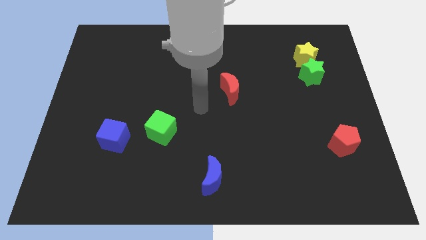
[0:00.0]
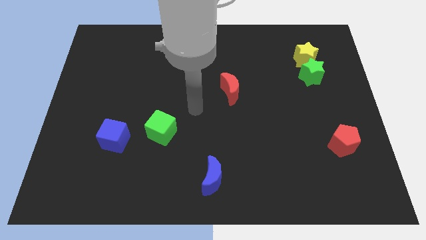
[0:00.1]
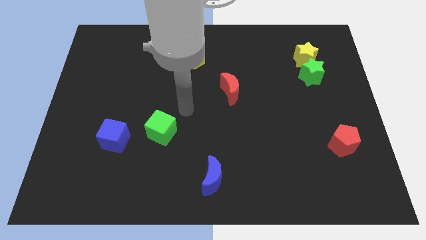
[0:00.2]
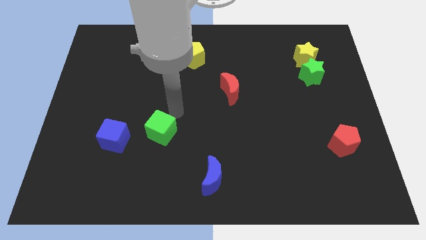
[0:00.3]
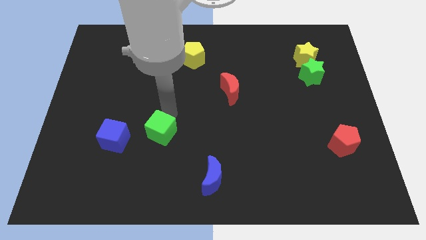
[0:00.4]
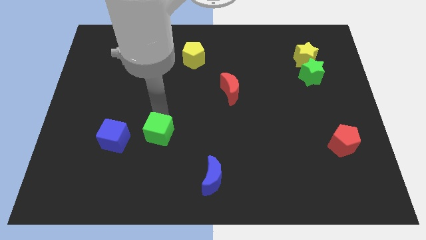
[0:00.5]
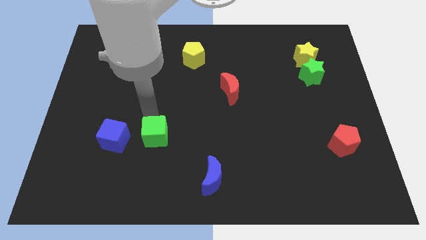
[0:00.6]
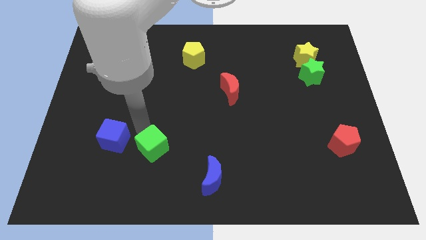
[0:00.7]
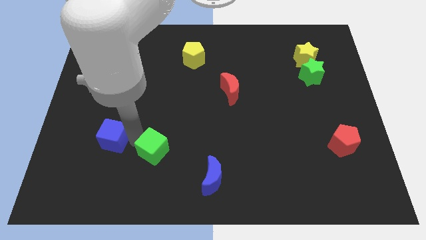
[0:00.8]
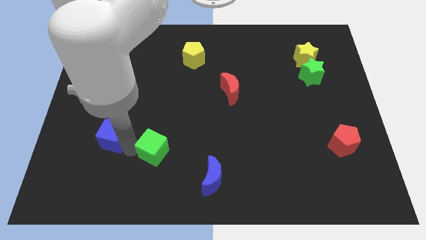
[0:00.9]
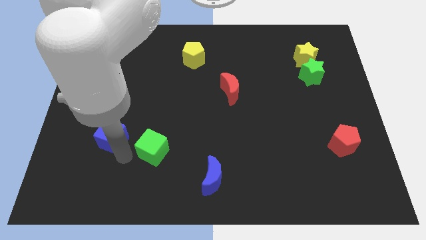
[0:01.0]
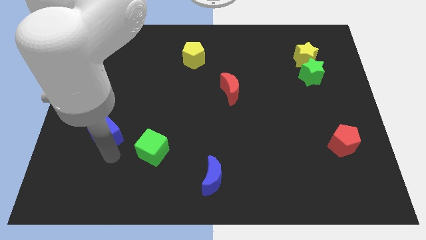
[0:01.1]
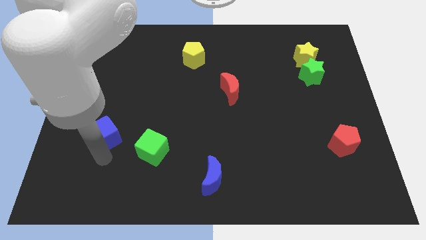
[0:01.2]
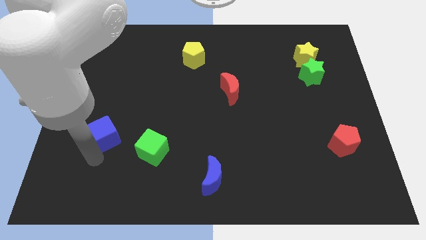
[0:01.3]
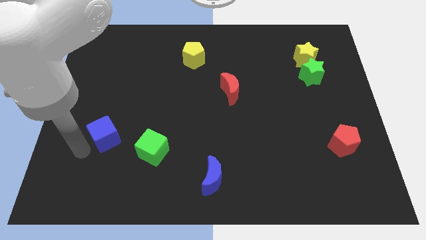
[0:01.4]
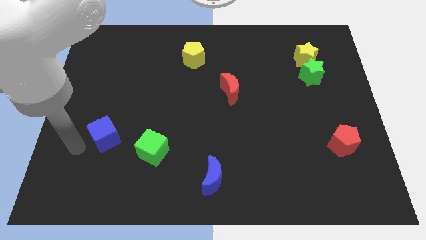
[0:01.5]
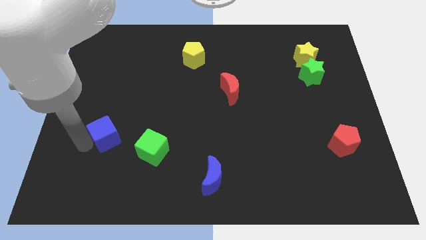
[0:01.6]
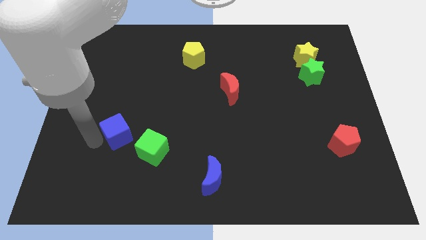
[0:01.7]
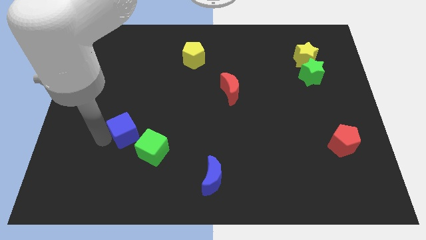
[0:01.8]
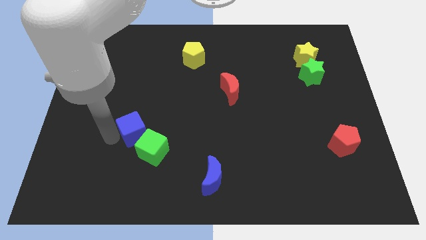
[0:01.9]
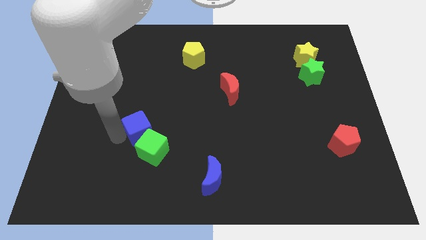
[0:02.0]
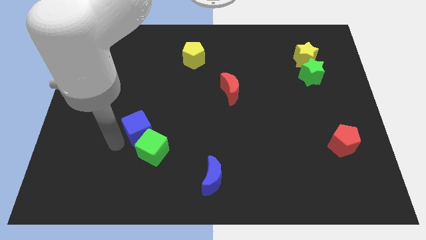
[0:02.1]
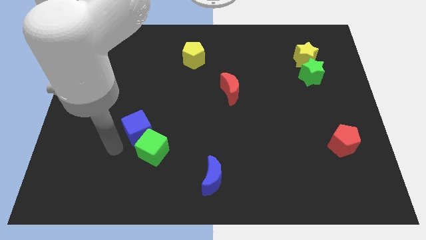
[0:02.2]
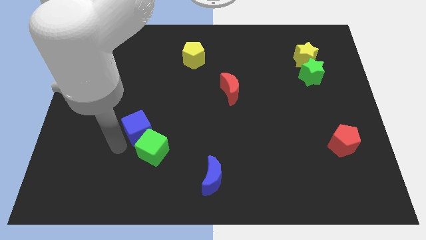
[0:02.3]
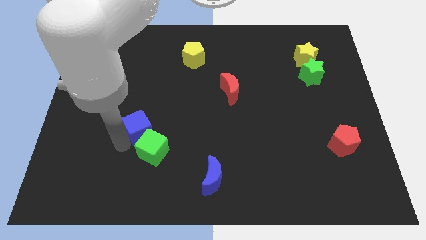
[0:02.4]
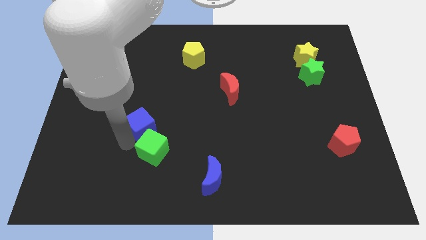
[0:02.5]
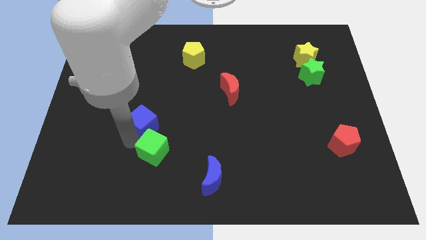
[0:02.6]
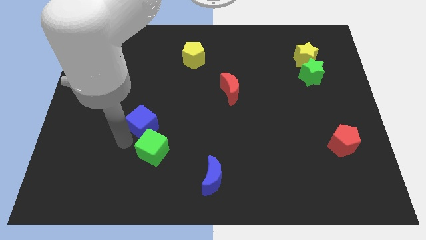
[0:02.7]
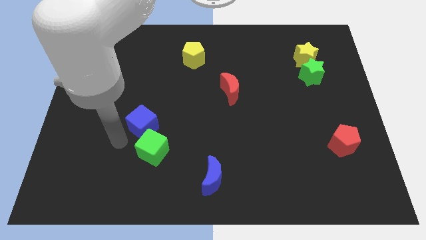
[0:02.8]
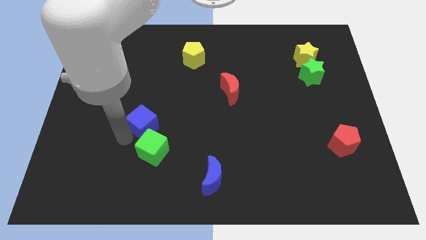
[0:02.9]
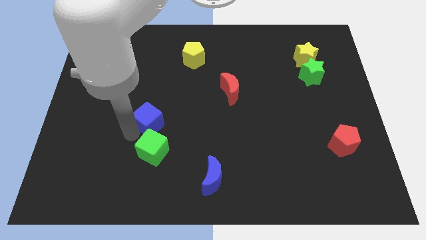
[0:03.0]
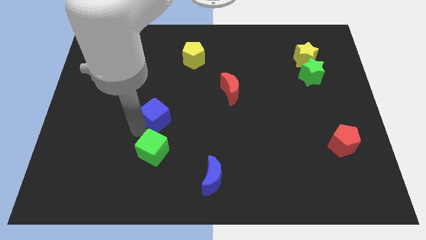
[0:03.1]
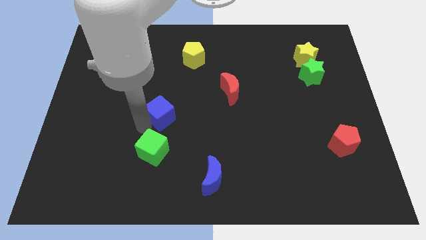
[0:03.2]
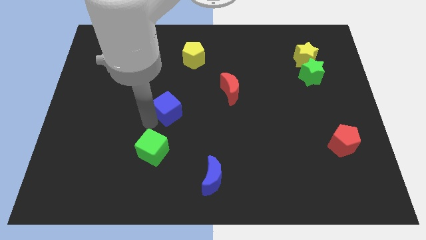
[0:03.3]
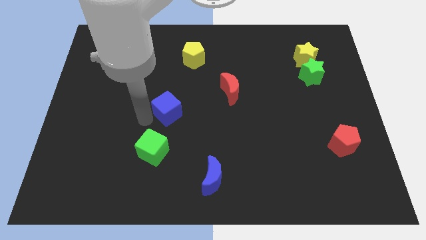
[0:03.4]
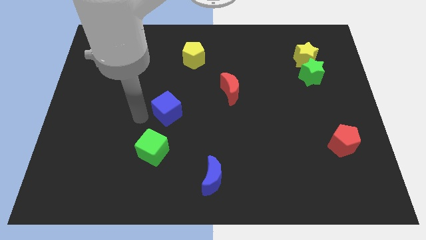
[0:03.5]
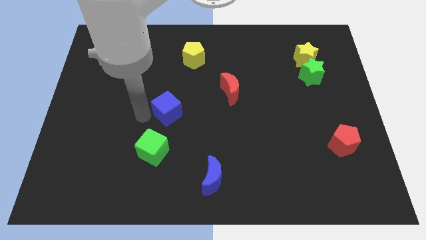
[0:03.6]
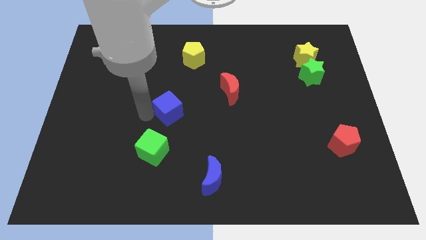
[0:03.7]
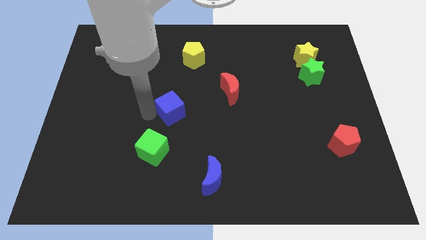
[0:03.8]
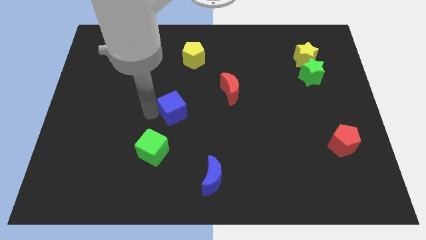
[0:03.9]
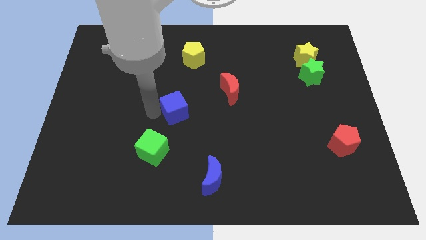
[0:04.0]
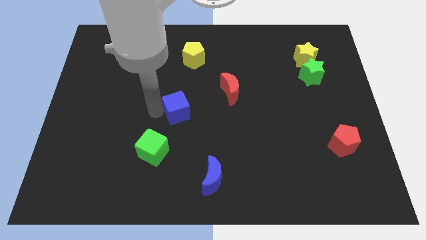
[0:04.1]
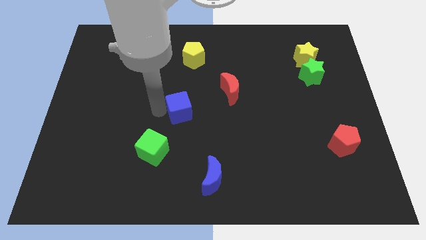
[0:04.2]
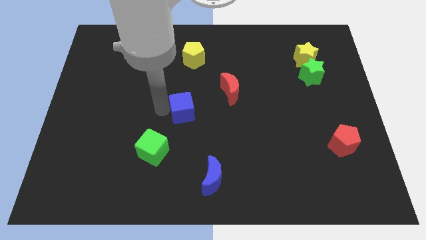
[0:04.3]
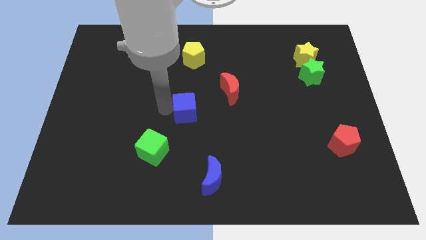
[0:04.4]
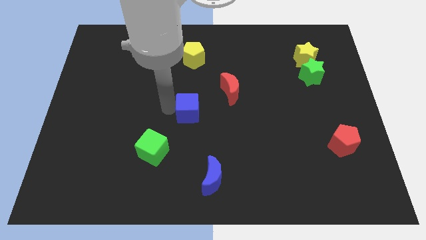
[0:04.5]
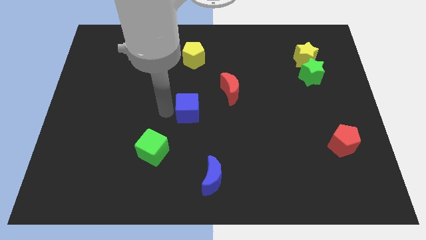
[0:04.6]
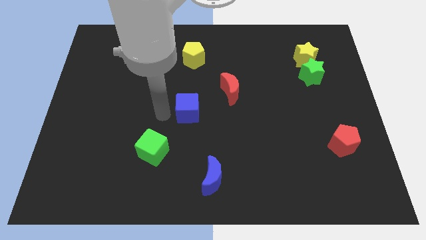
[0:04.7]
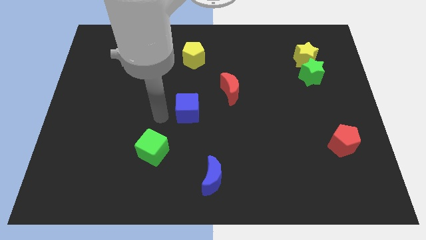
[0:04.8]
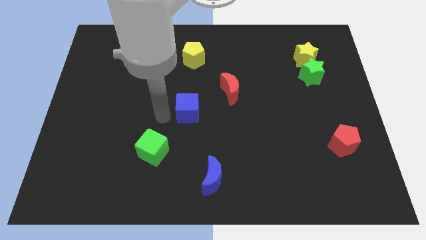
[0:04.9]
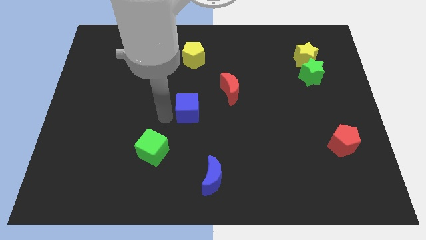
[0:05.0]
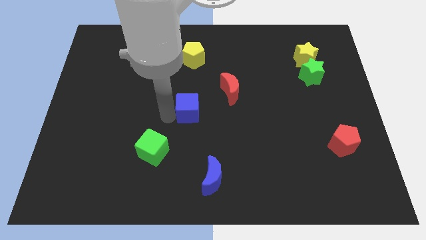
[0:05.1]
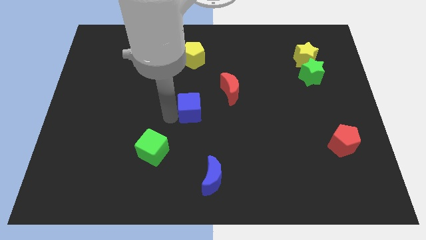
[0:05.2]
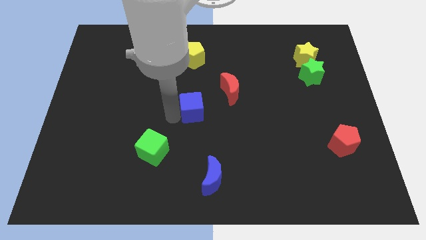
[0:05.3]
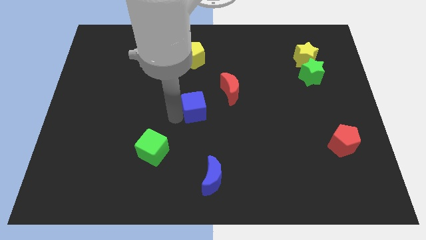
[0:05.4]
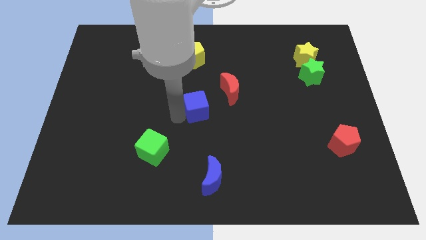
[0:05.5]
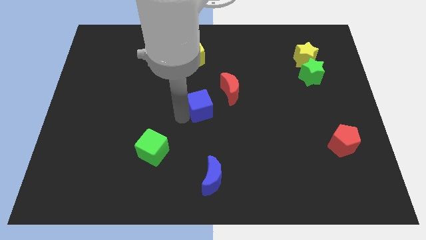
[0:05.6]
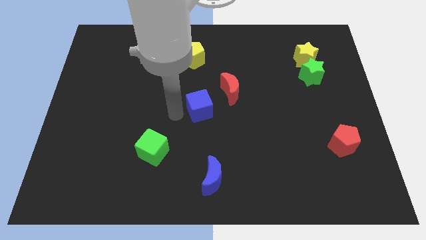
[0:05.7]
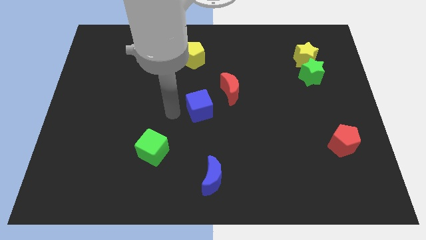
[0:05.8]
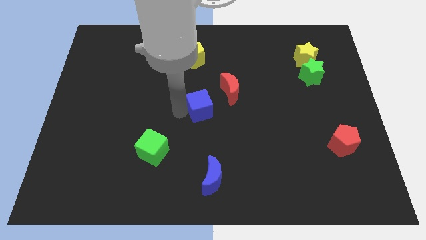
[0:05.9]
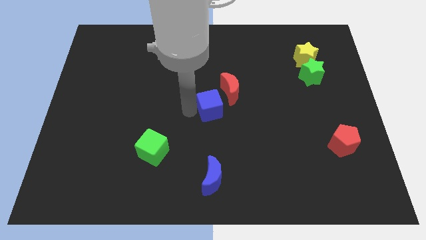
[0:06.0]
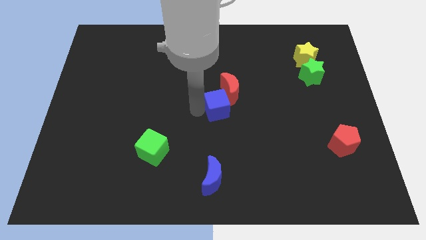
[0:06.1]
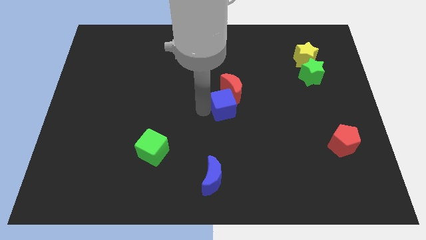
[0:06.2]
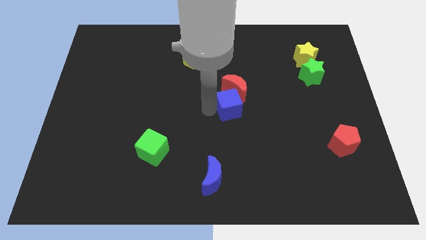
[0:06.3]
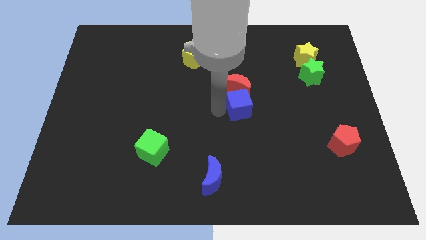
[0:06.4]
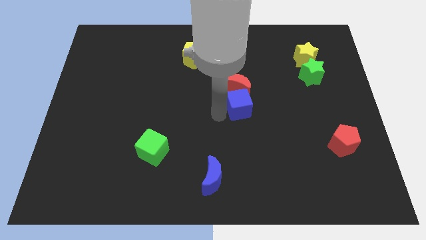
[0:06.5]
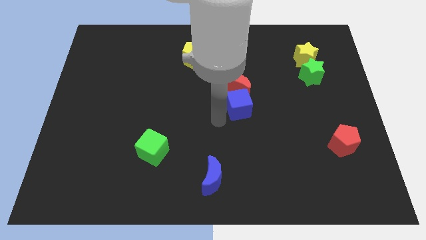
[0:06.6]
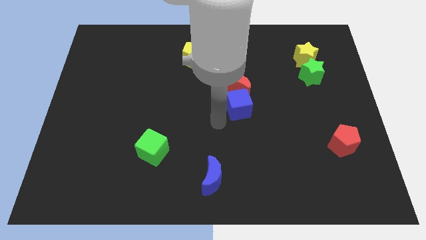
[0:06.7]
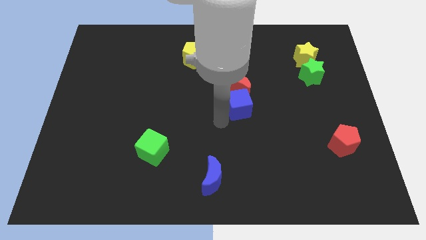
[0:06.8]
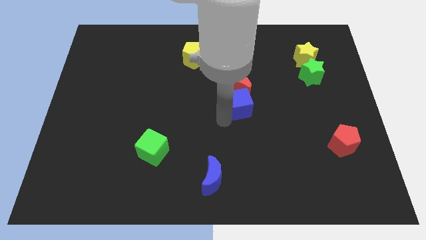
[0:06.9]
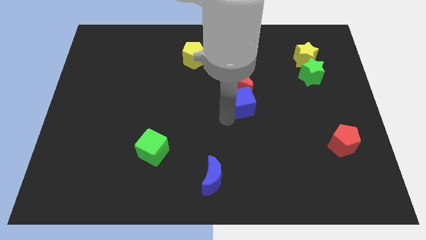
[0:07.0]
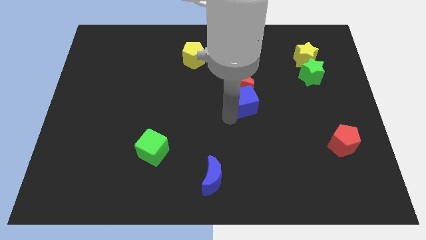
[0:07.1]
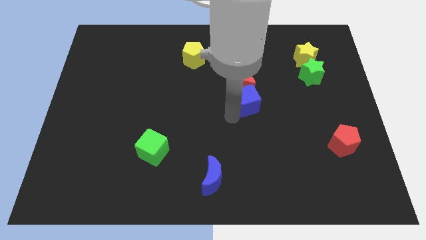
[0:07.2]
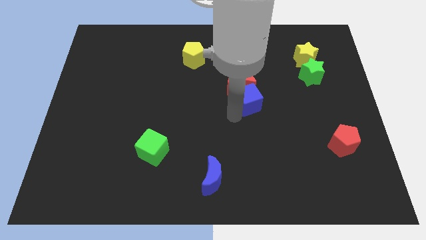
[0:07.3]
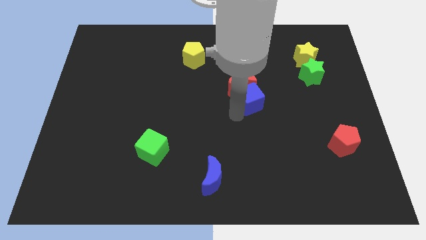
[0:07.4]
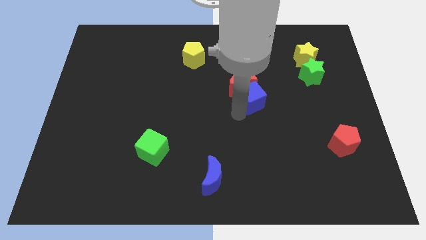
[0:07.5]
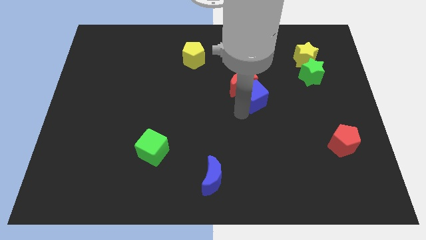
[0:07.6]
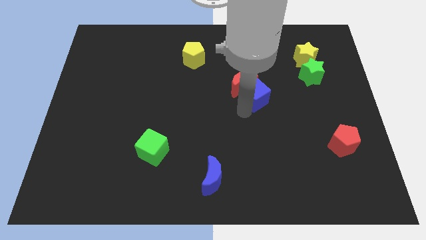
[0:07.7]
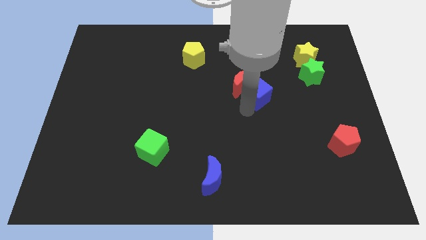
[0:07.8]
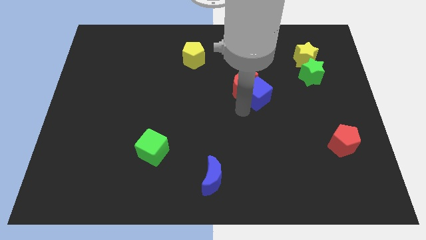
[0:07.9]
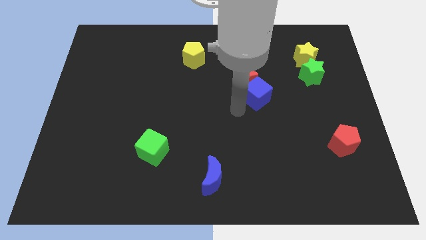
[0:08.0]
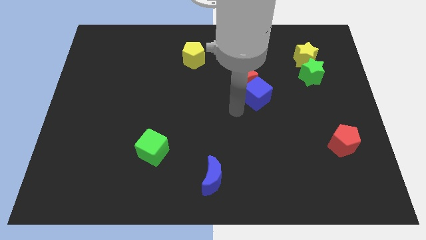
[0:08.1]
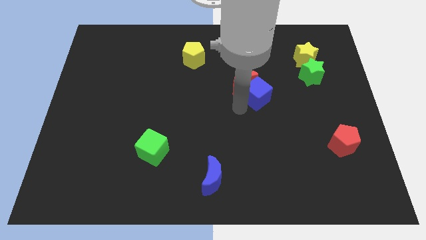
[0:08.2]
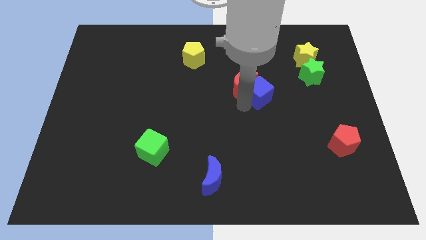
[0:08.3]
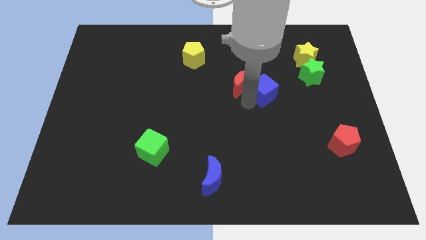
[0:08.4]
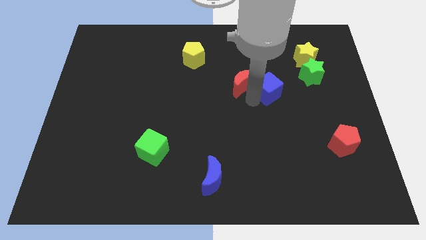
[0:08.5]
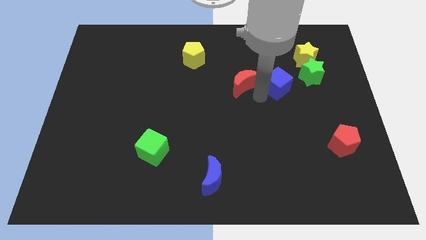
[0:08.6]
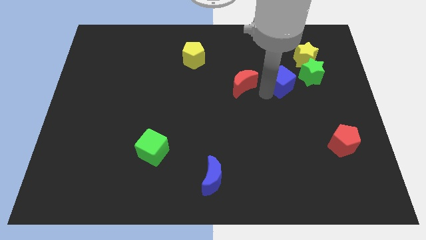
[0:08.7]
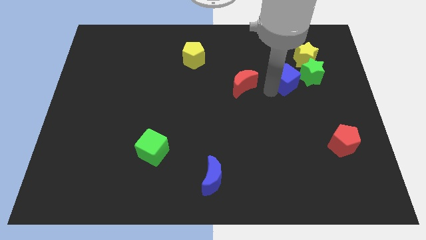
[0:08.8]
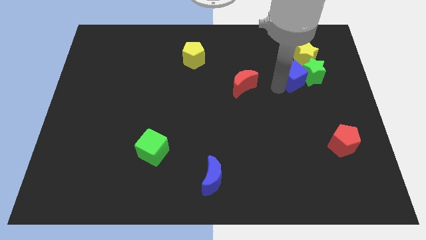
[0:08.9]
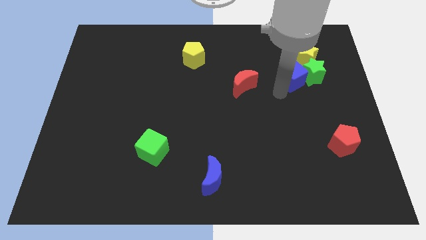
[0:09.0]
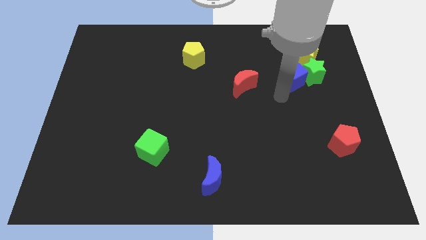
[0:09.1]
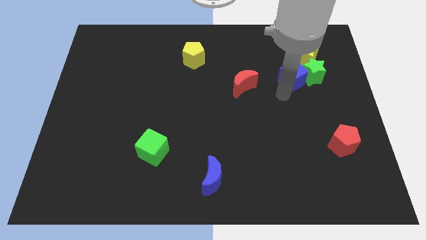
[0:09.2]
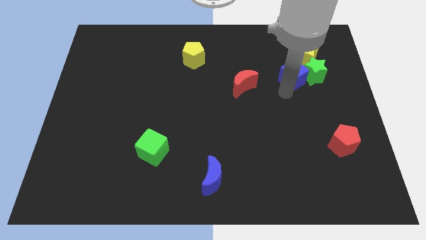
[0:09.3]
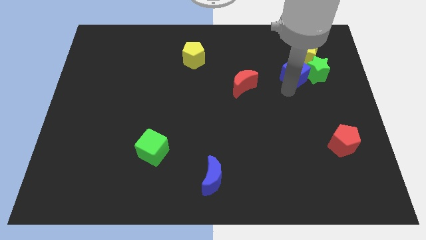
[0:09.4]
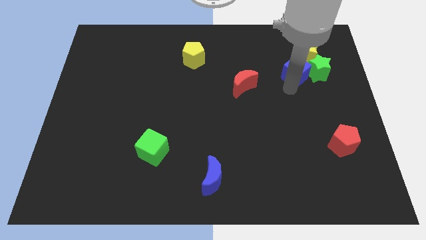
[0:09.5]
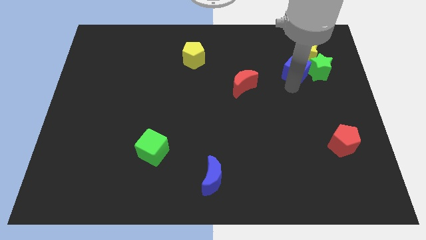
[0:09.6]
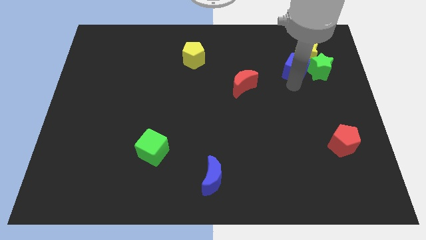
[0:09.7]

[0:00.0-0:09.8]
move the blue cube to the yellow star
